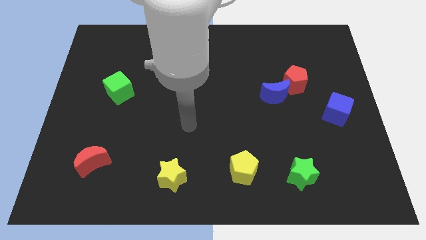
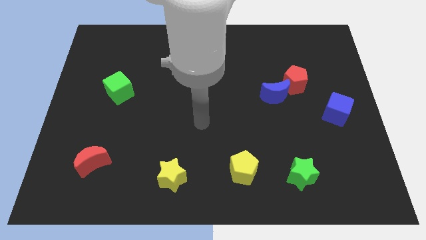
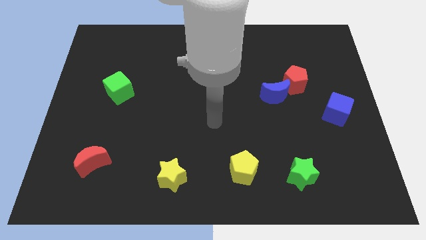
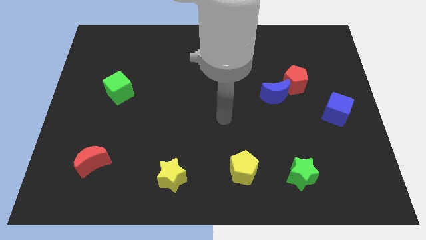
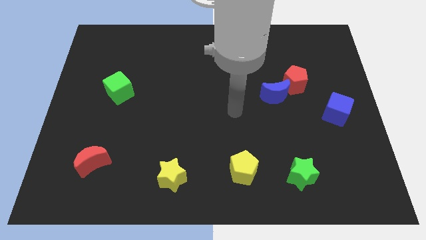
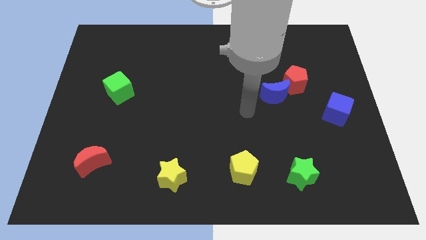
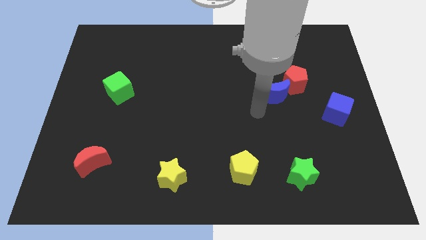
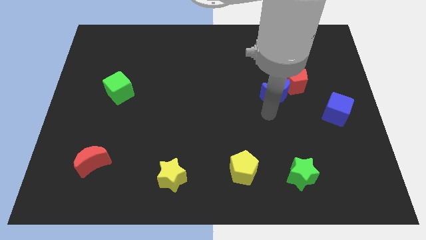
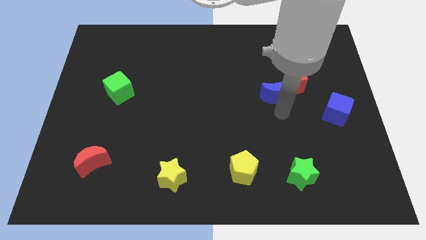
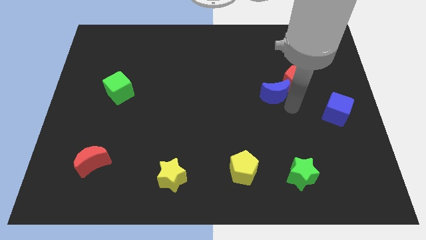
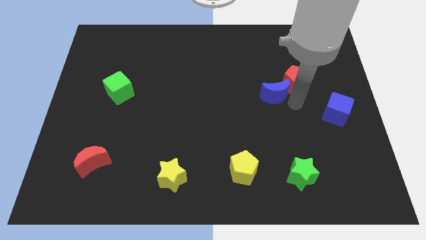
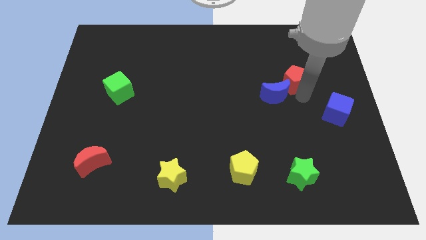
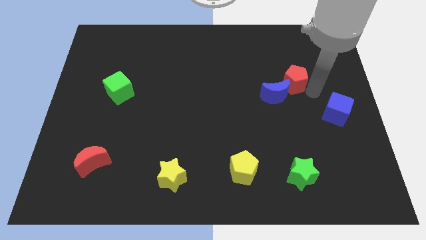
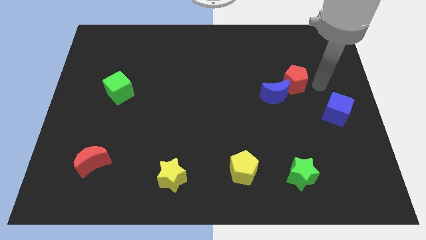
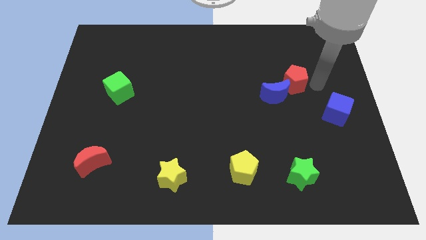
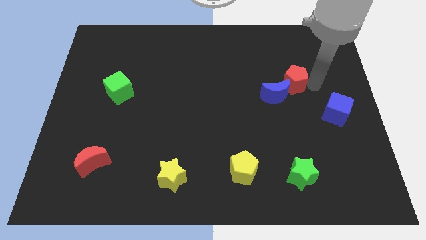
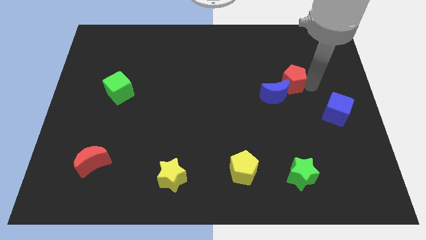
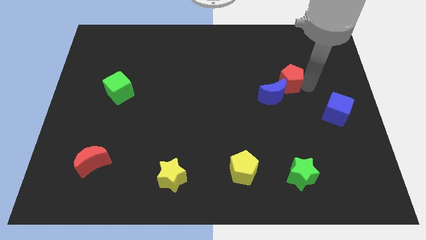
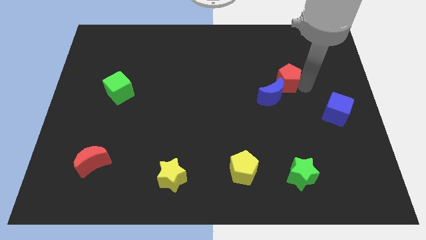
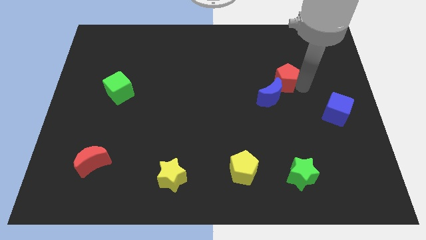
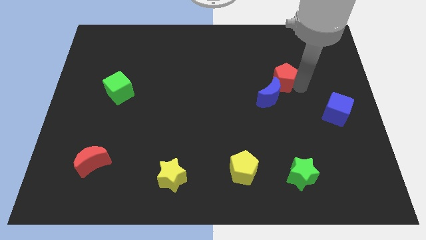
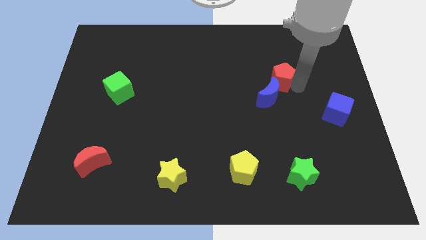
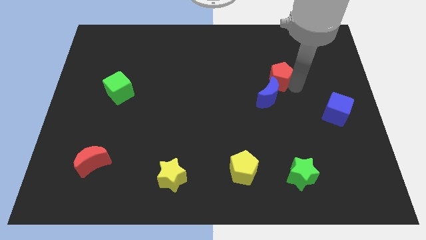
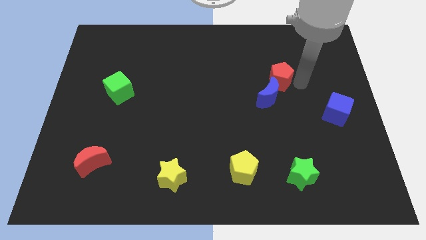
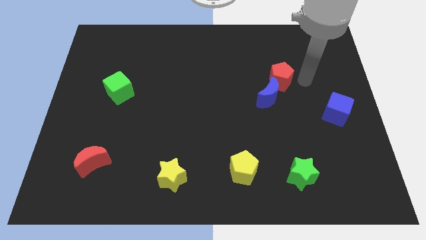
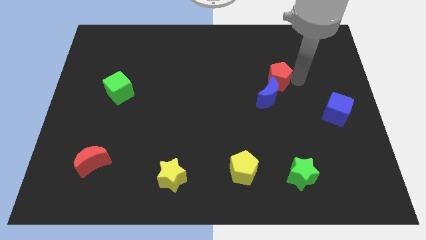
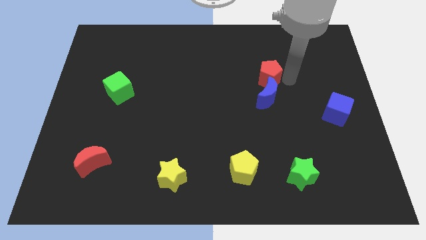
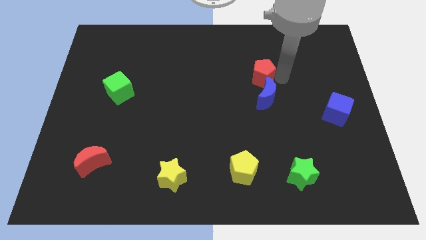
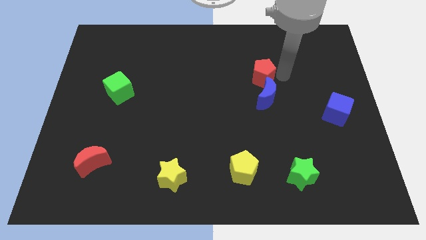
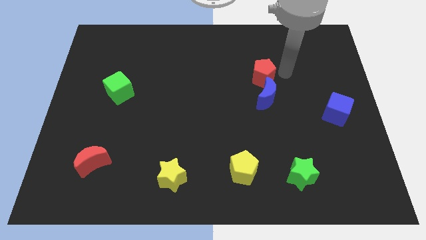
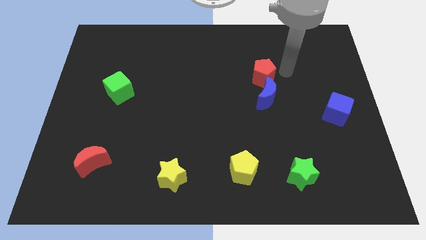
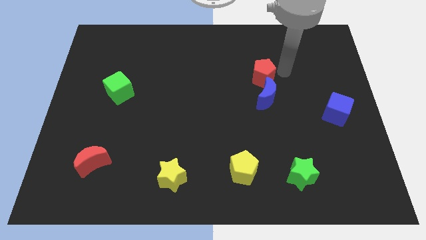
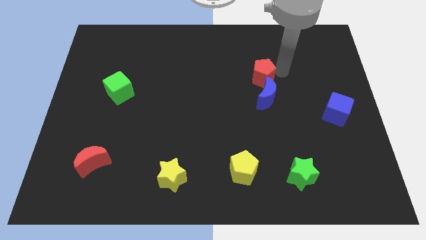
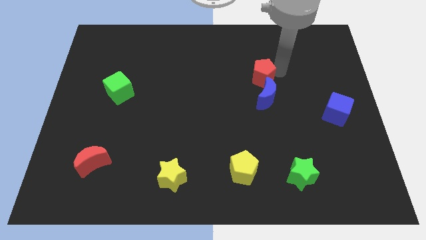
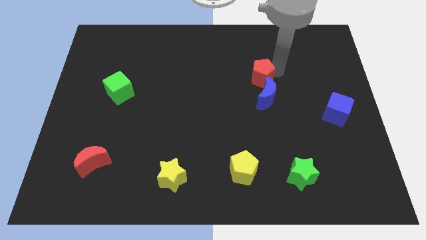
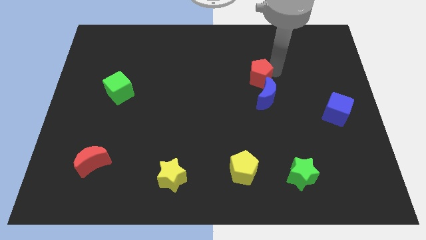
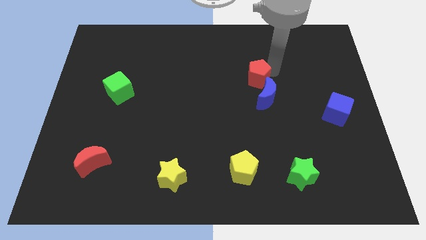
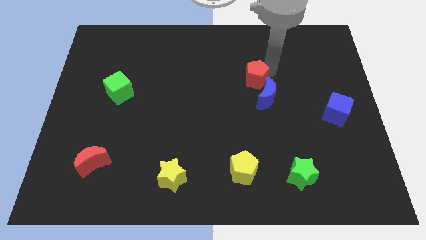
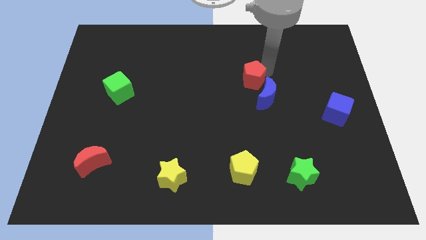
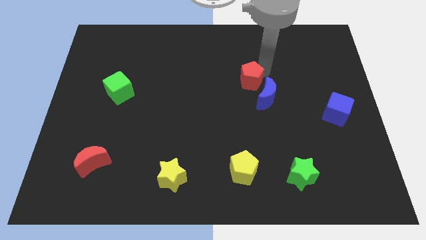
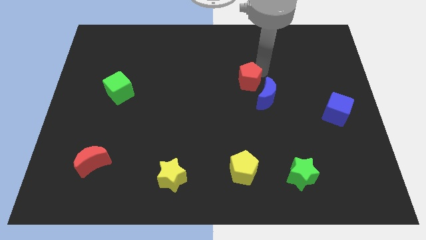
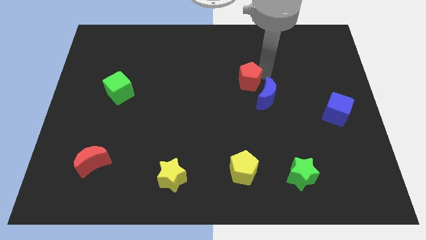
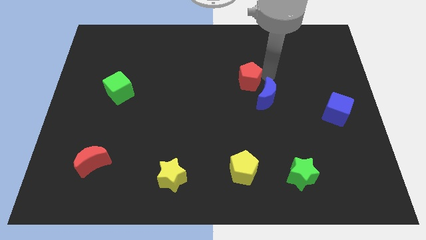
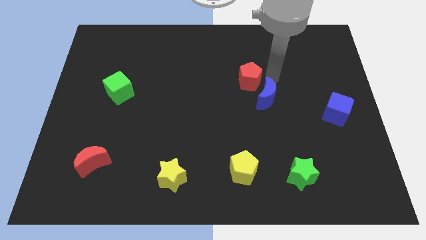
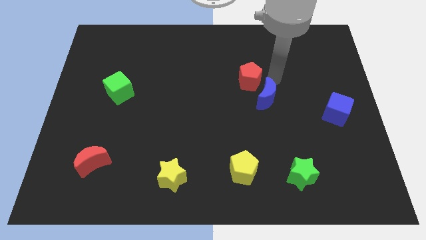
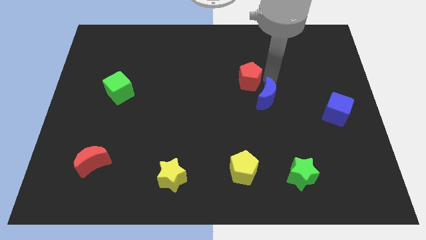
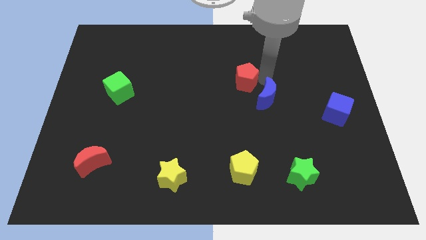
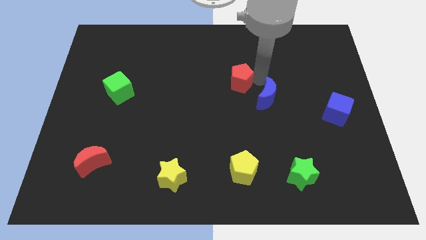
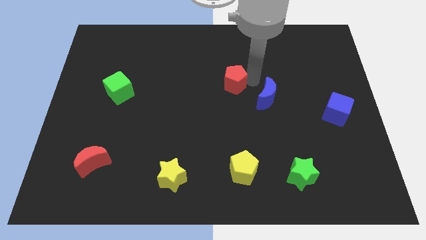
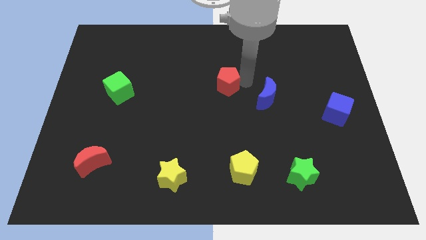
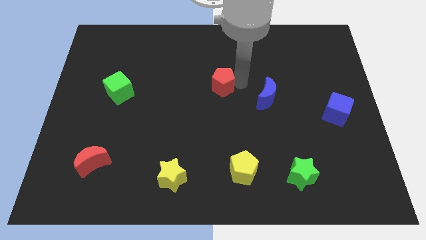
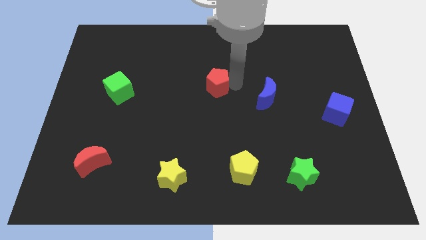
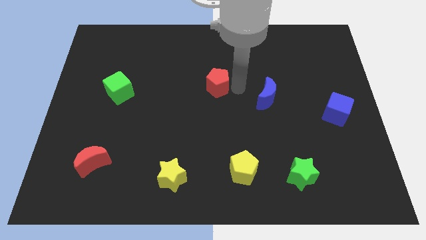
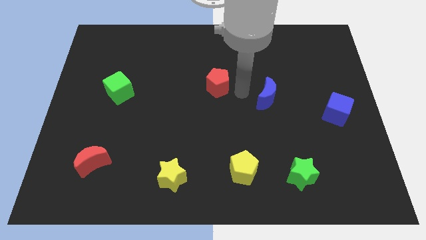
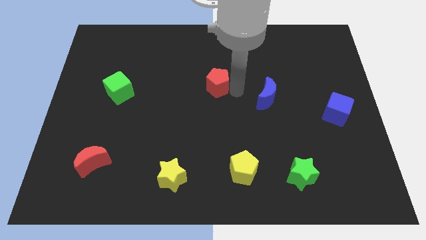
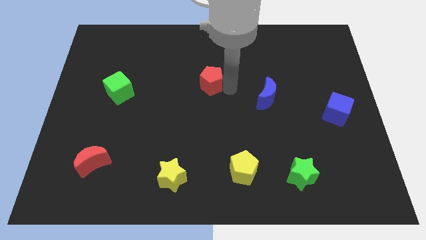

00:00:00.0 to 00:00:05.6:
push the red pentagon left

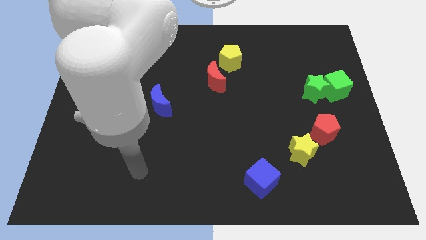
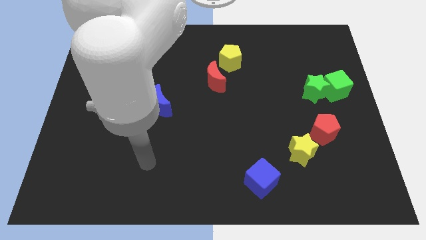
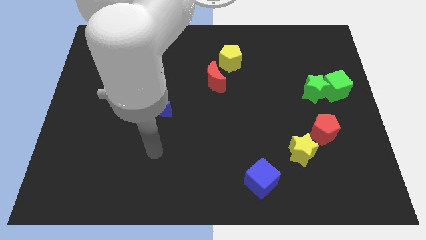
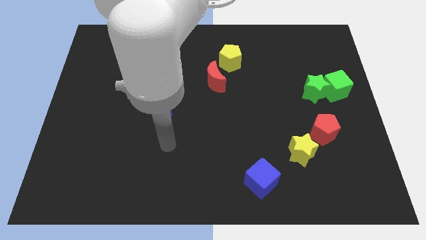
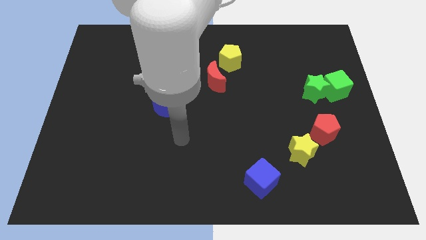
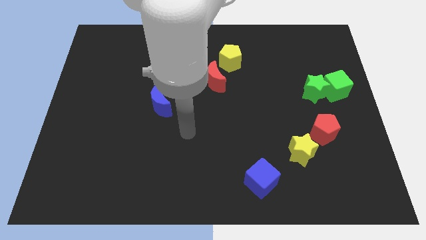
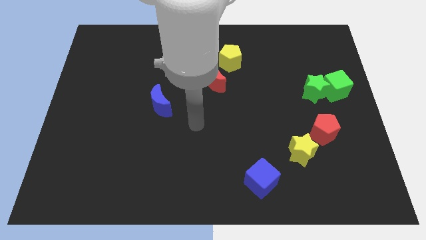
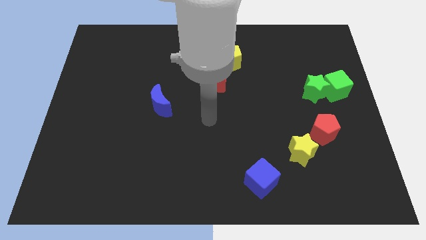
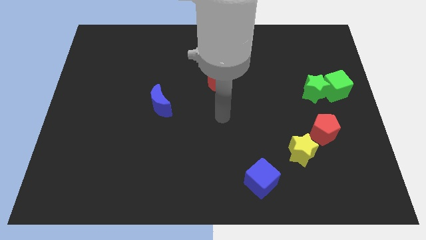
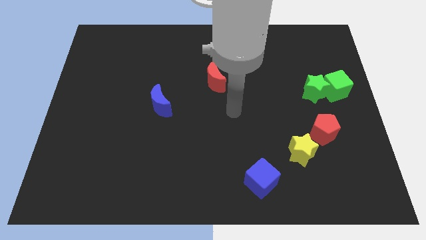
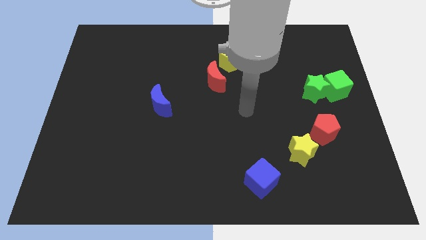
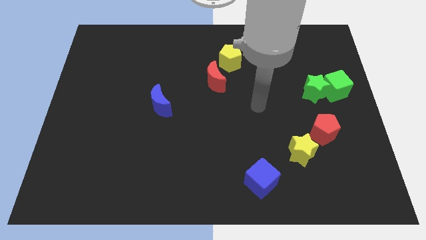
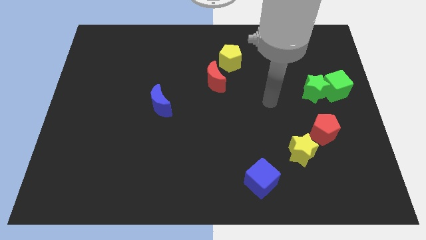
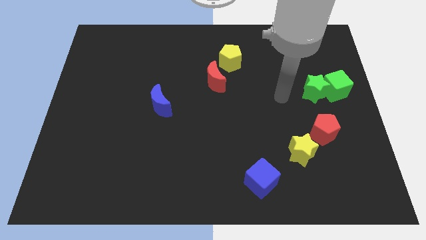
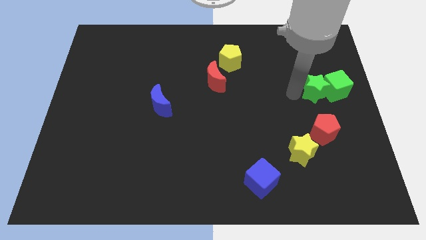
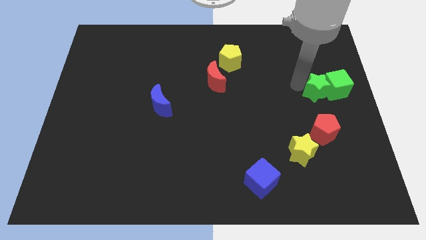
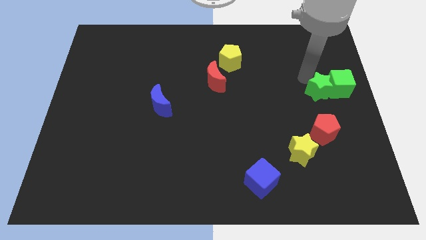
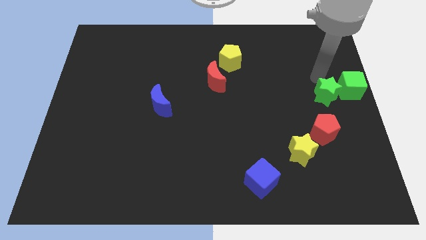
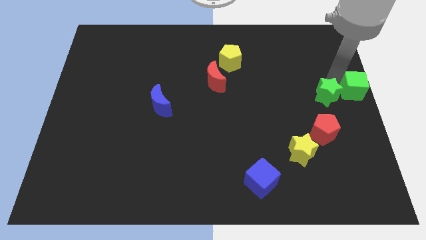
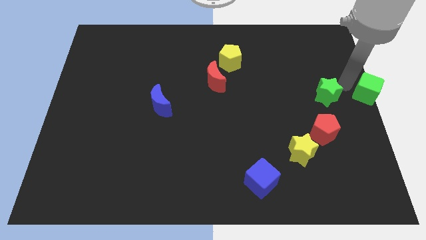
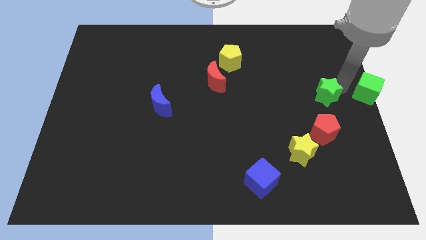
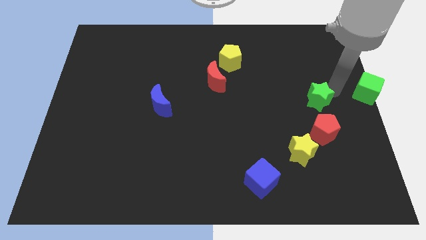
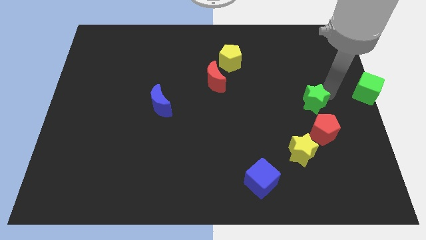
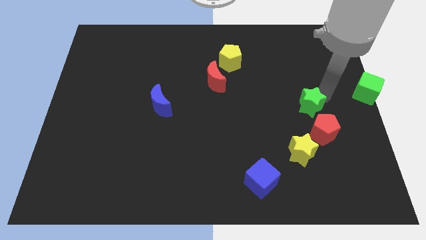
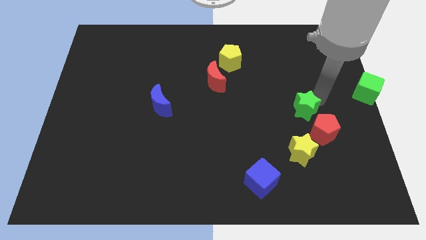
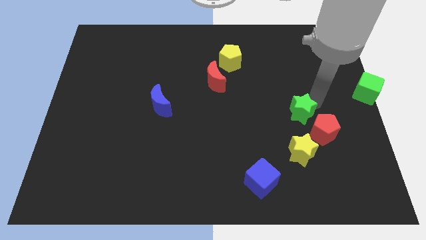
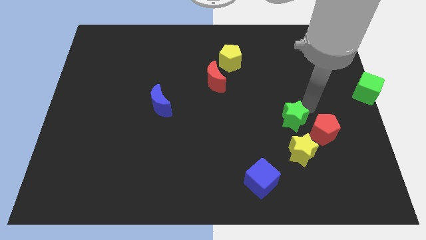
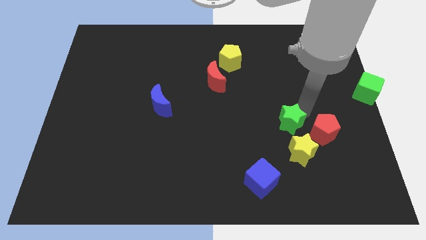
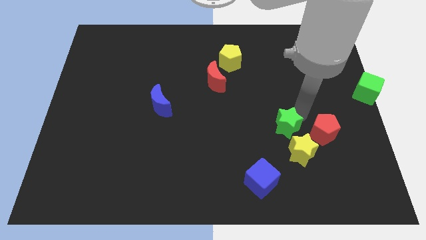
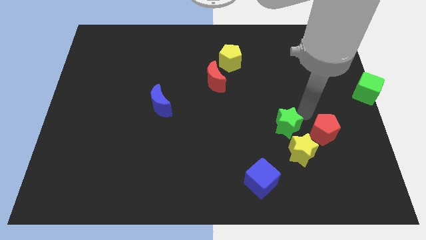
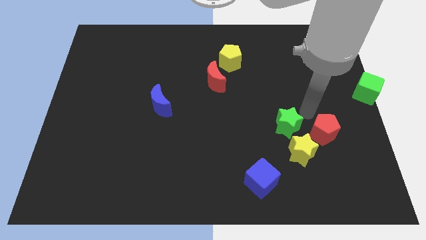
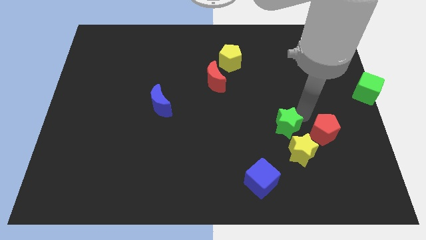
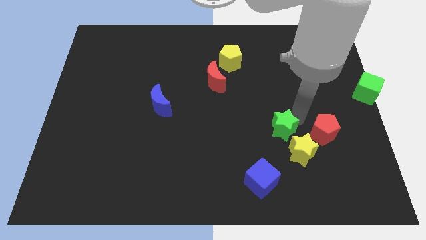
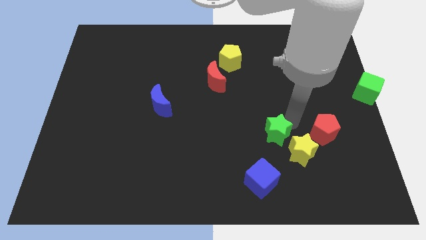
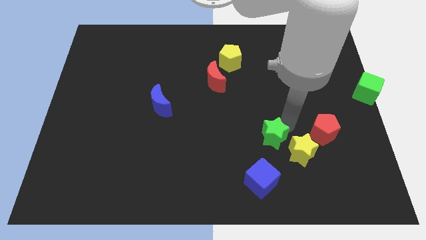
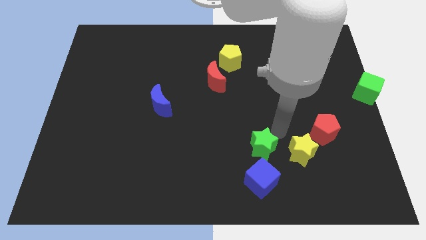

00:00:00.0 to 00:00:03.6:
move the green star down and left diagonally
